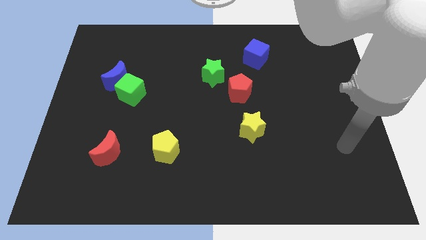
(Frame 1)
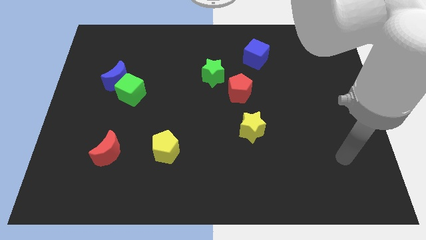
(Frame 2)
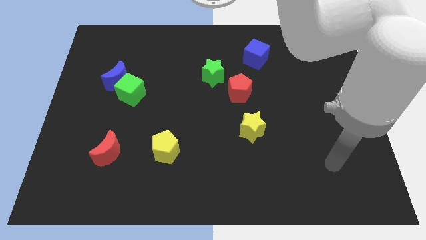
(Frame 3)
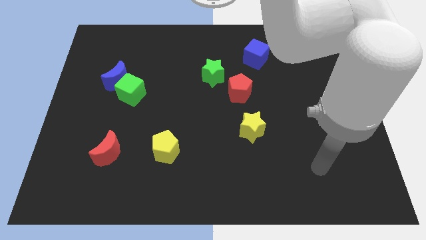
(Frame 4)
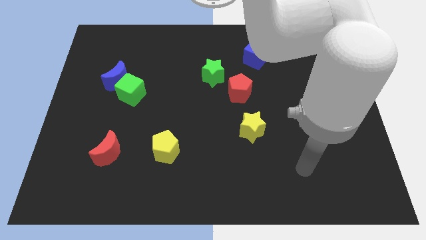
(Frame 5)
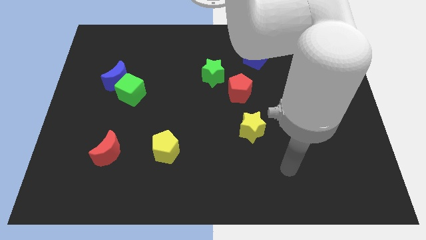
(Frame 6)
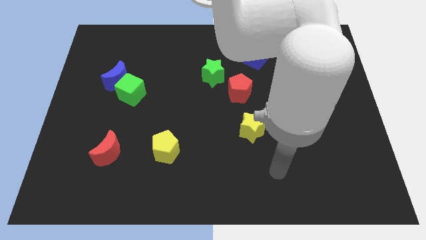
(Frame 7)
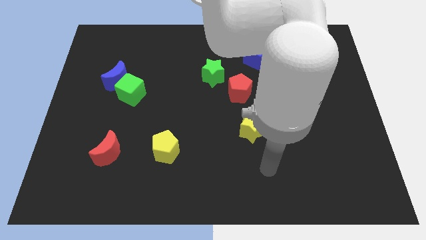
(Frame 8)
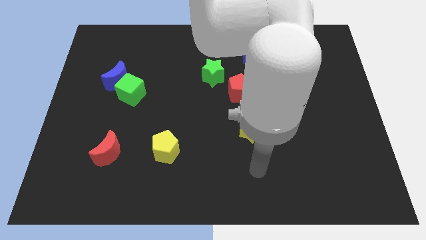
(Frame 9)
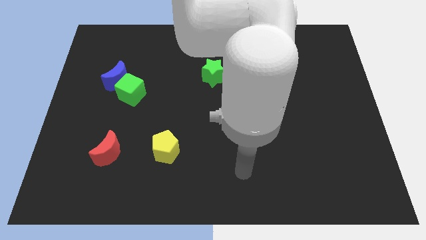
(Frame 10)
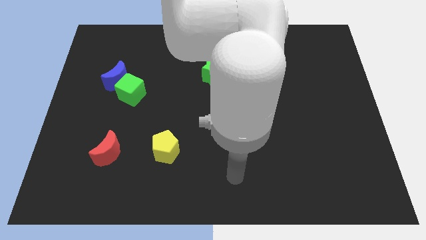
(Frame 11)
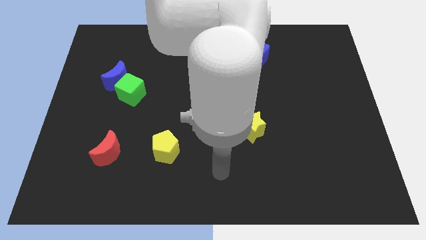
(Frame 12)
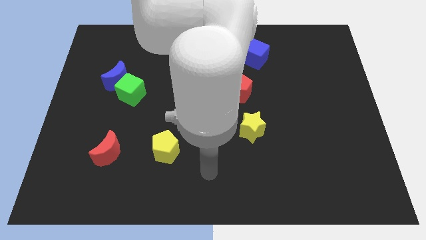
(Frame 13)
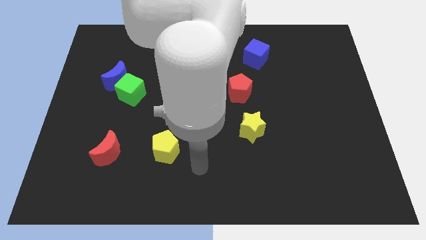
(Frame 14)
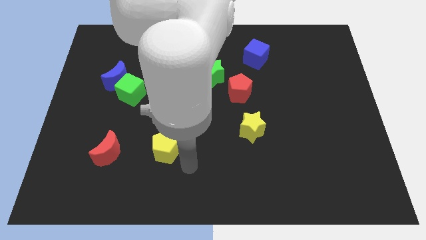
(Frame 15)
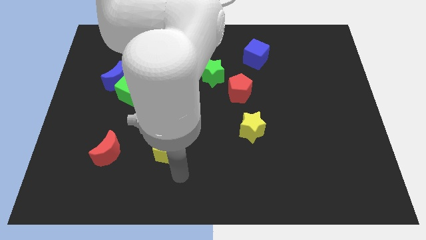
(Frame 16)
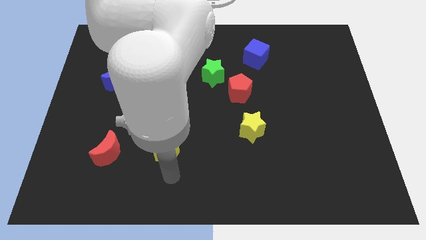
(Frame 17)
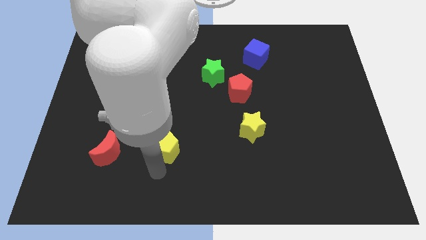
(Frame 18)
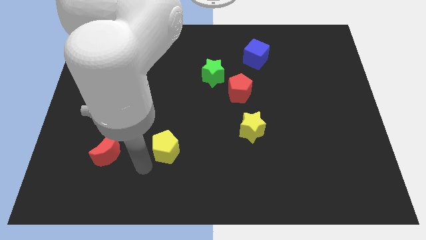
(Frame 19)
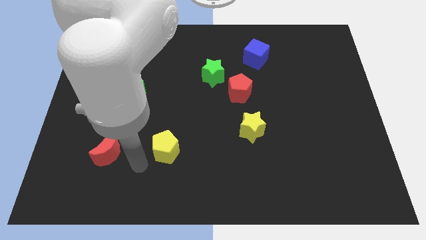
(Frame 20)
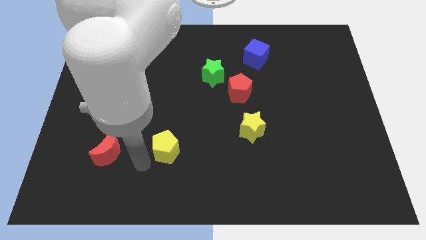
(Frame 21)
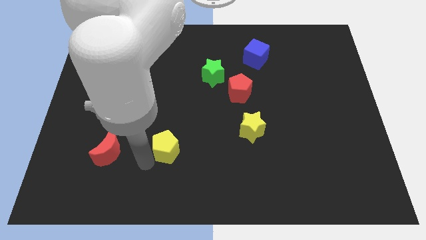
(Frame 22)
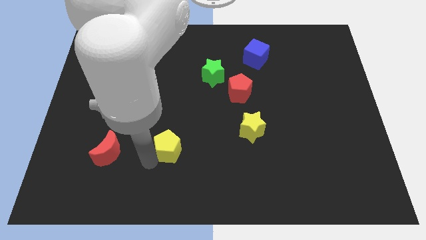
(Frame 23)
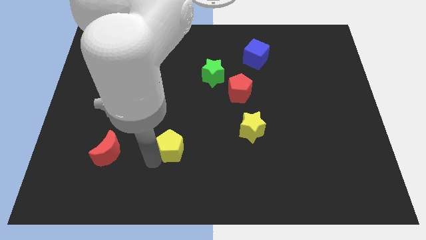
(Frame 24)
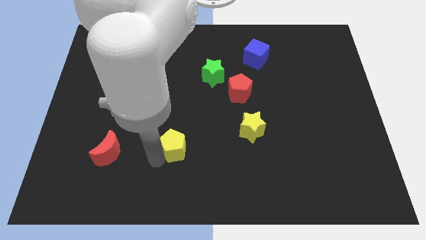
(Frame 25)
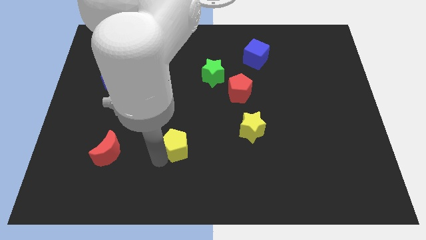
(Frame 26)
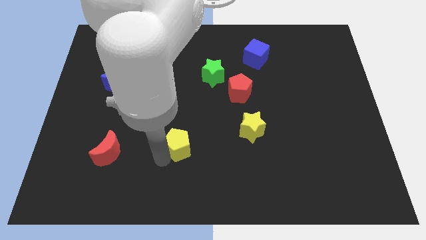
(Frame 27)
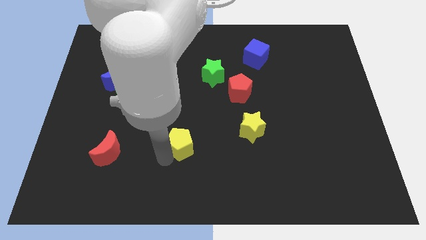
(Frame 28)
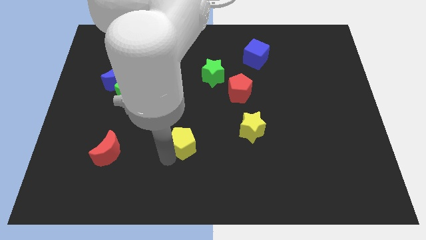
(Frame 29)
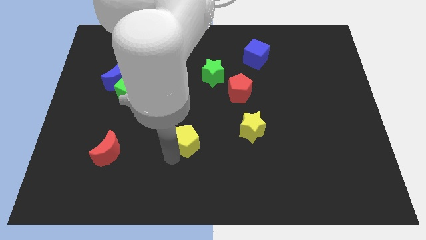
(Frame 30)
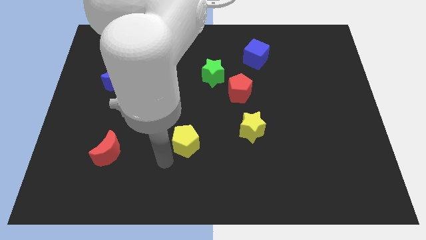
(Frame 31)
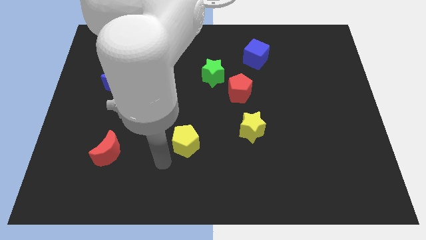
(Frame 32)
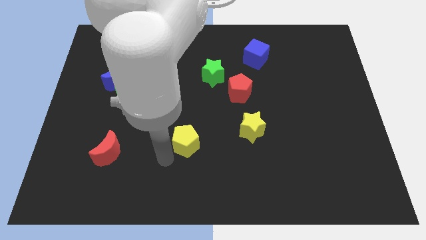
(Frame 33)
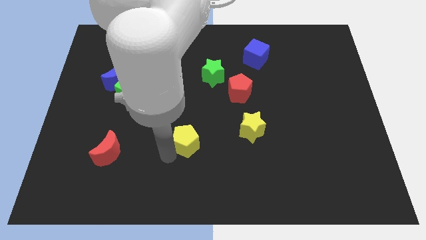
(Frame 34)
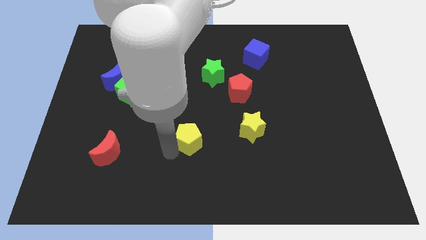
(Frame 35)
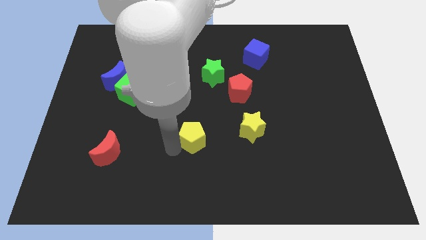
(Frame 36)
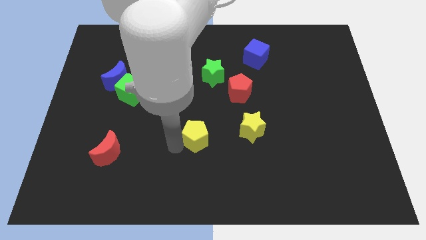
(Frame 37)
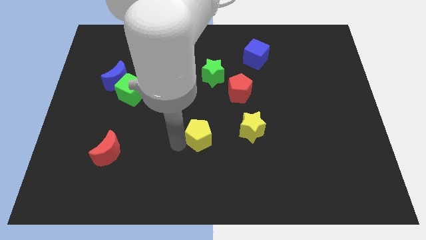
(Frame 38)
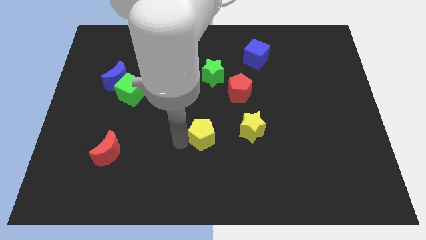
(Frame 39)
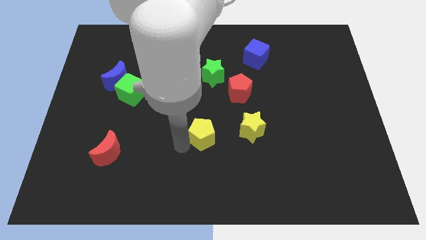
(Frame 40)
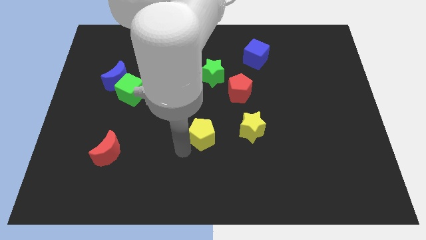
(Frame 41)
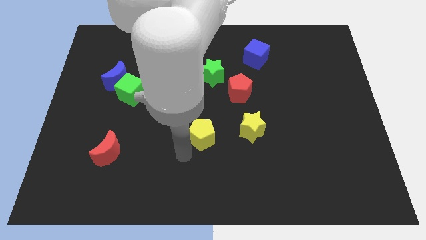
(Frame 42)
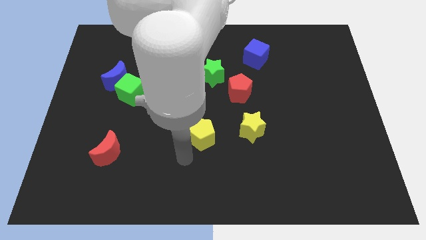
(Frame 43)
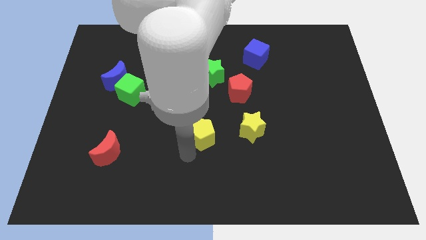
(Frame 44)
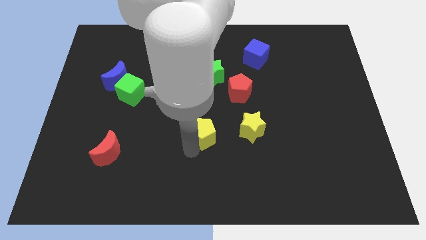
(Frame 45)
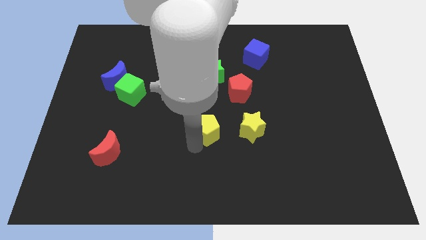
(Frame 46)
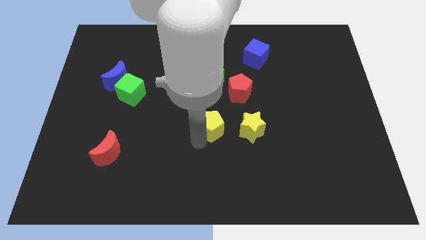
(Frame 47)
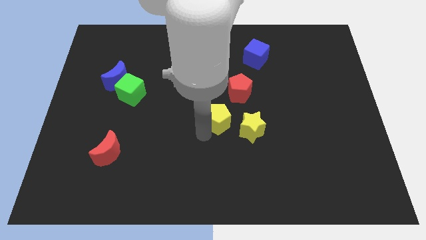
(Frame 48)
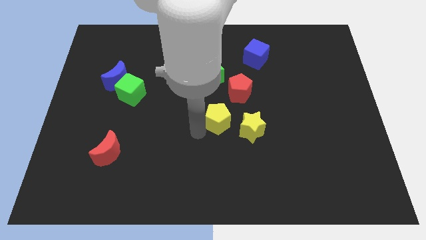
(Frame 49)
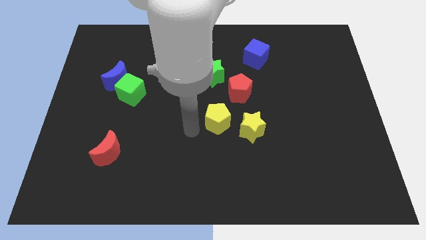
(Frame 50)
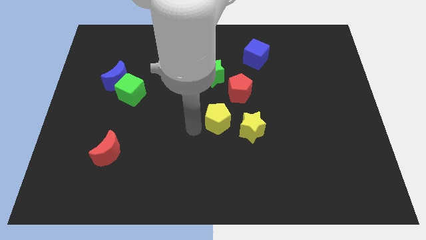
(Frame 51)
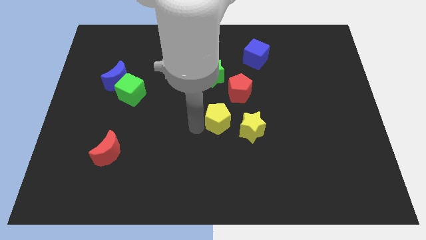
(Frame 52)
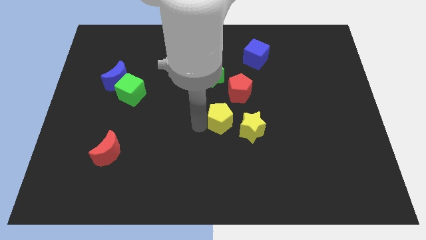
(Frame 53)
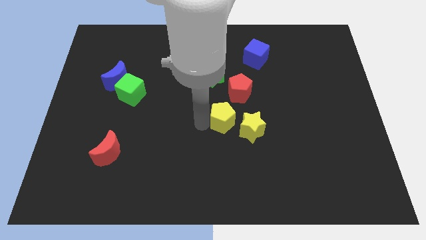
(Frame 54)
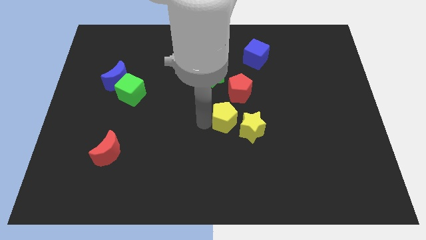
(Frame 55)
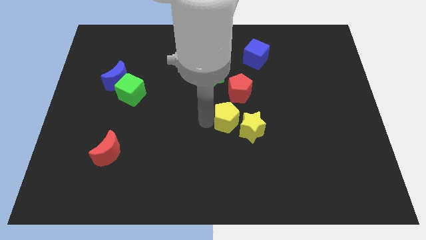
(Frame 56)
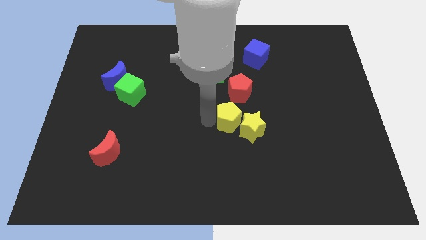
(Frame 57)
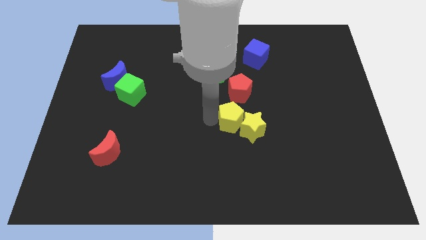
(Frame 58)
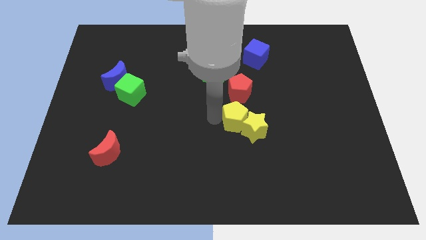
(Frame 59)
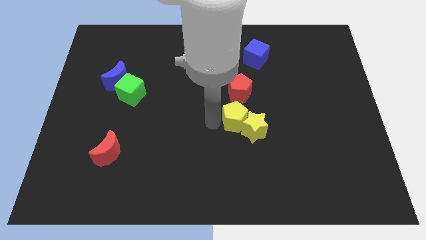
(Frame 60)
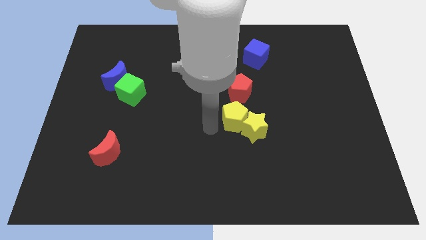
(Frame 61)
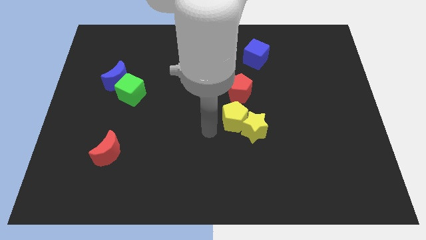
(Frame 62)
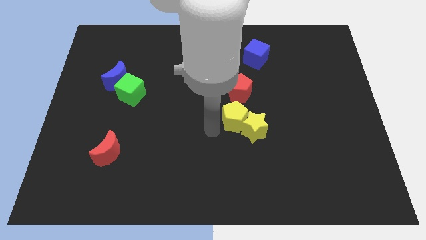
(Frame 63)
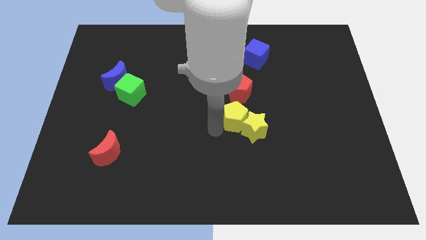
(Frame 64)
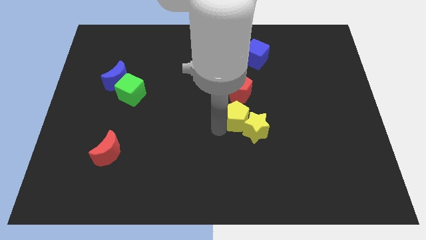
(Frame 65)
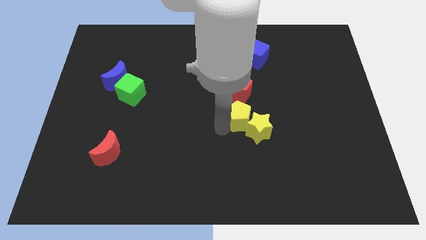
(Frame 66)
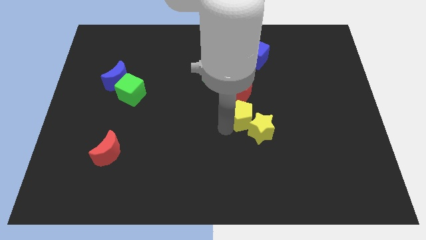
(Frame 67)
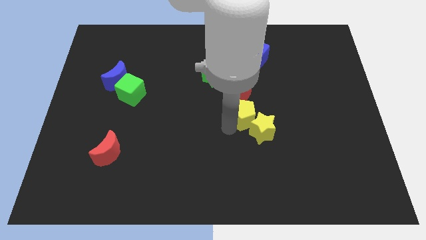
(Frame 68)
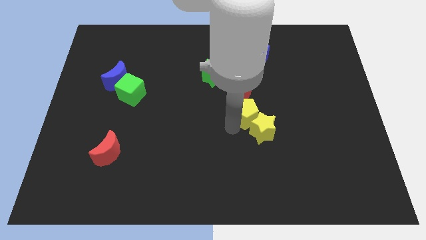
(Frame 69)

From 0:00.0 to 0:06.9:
push the yellow pentagon to the bottom right side of the red pentagon

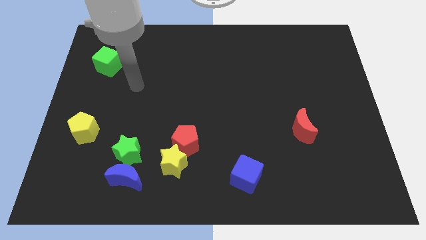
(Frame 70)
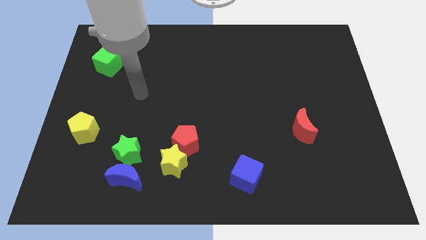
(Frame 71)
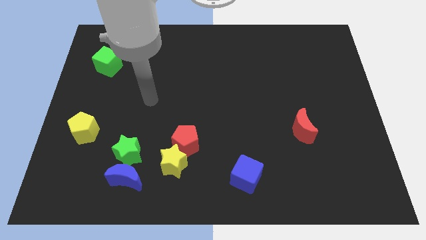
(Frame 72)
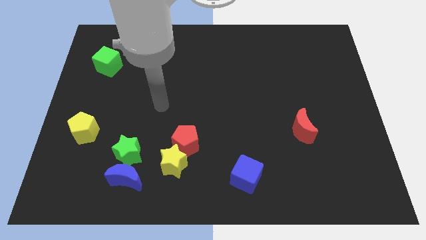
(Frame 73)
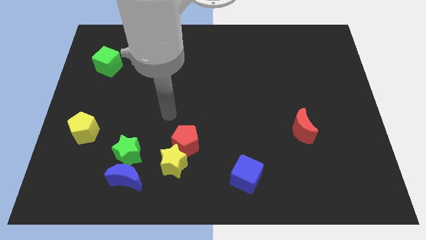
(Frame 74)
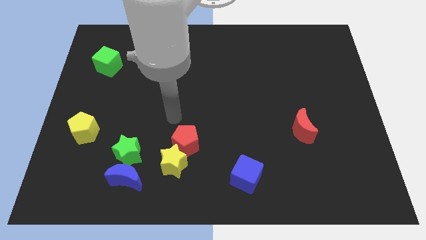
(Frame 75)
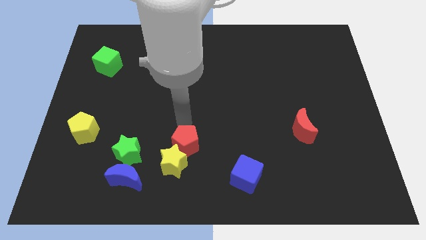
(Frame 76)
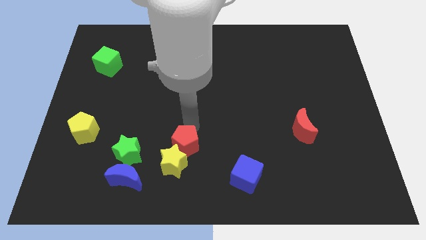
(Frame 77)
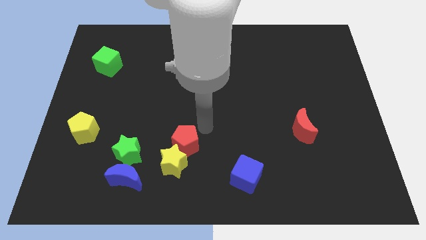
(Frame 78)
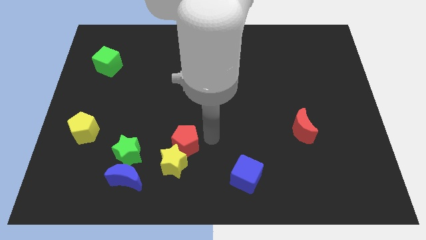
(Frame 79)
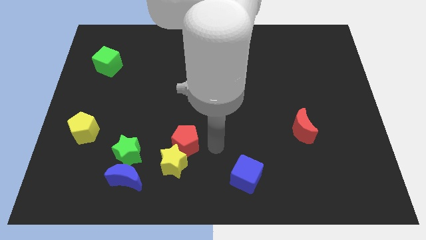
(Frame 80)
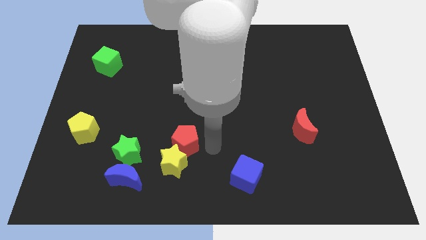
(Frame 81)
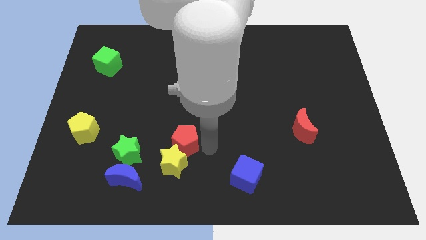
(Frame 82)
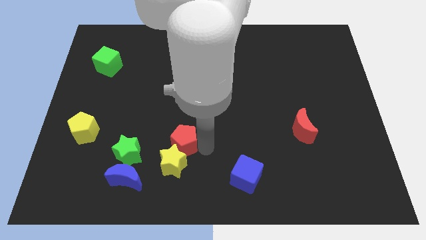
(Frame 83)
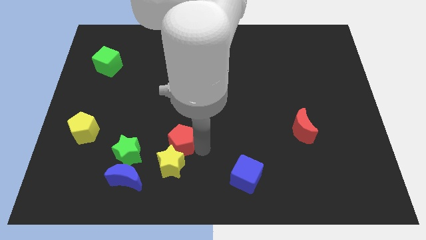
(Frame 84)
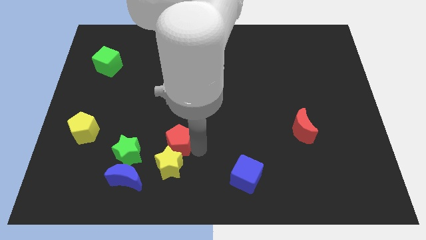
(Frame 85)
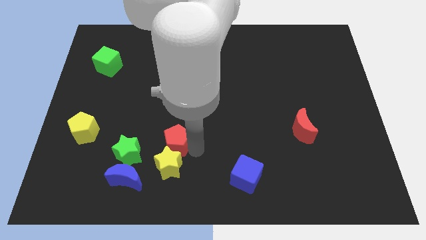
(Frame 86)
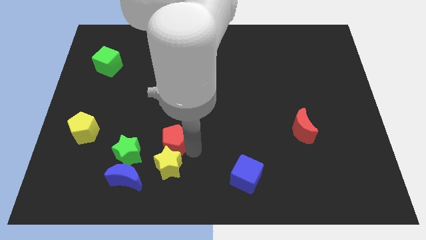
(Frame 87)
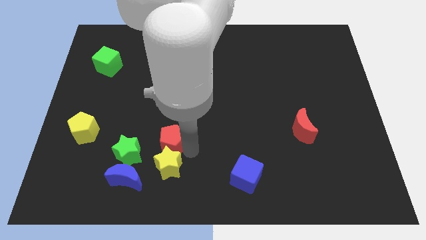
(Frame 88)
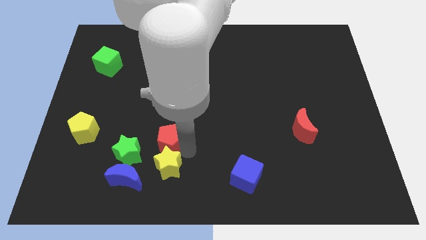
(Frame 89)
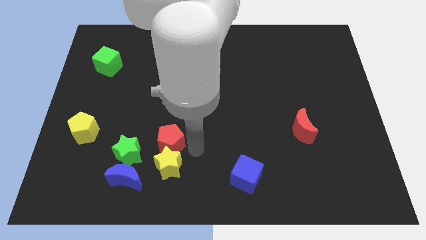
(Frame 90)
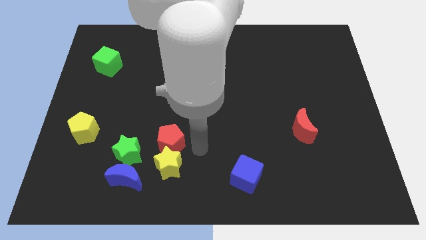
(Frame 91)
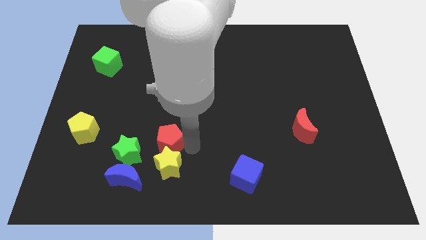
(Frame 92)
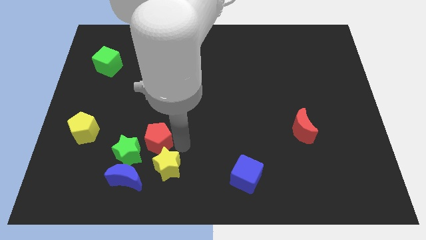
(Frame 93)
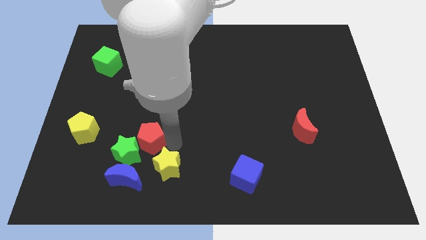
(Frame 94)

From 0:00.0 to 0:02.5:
move the red pentagon to the top side of the blue moon
